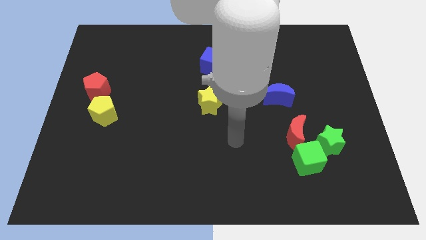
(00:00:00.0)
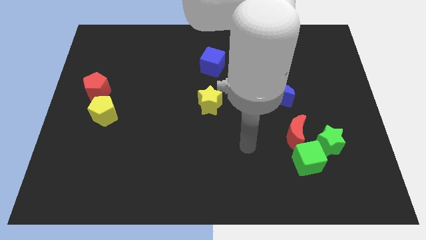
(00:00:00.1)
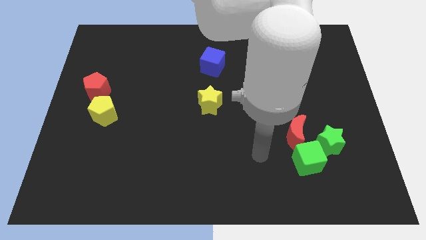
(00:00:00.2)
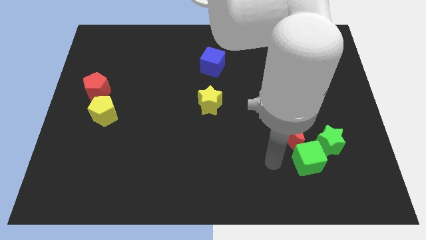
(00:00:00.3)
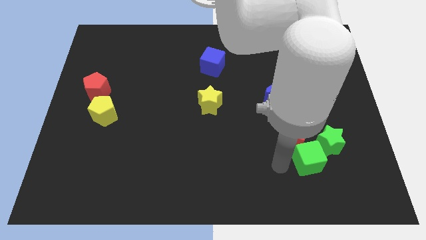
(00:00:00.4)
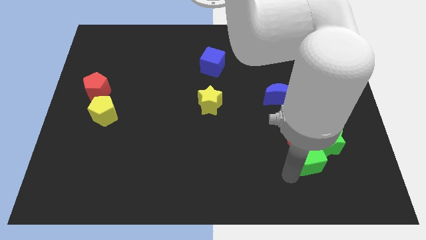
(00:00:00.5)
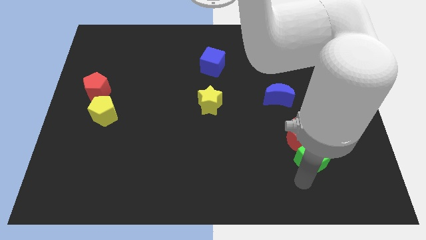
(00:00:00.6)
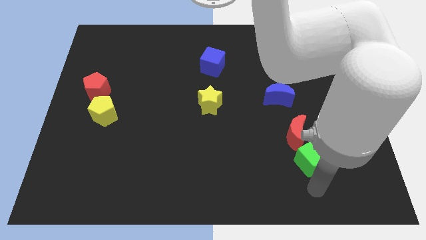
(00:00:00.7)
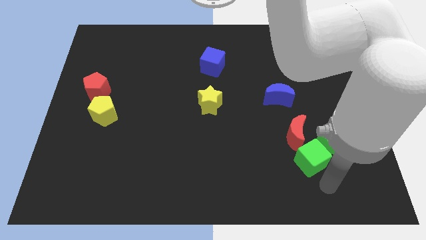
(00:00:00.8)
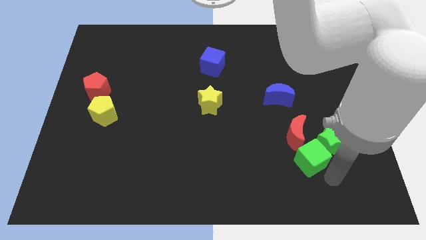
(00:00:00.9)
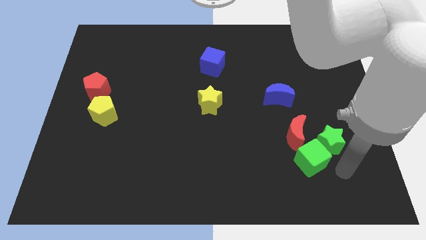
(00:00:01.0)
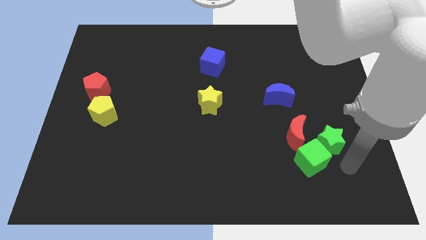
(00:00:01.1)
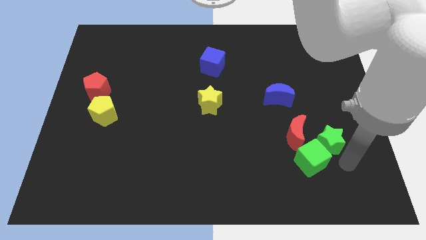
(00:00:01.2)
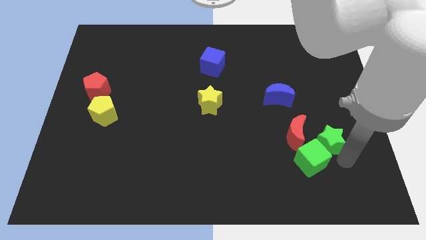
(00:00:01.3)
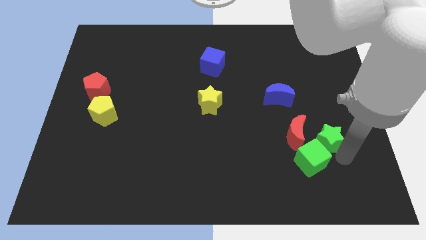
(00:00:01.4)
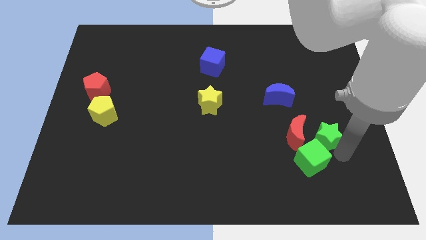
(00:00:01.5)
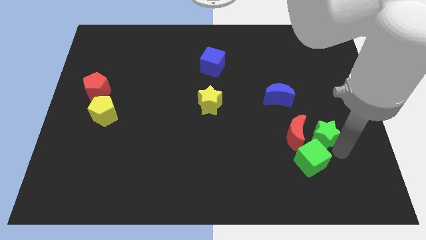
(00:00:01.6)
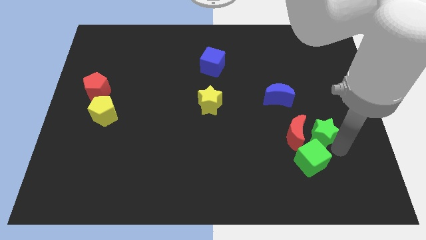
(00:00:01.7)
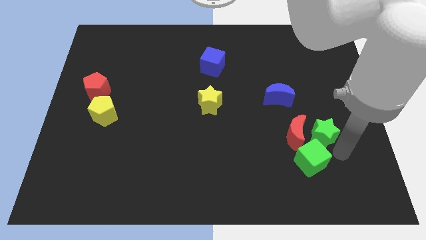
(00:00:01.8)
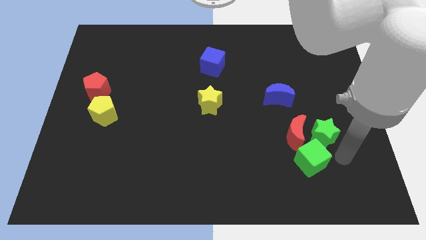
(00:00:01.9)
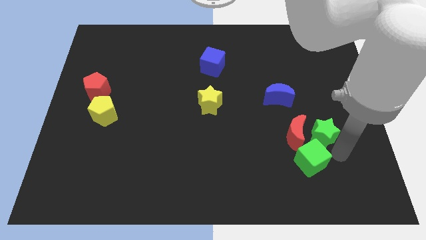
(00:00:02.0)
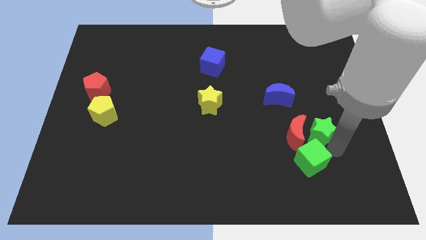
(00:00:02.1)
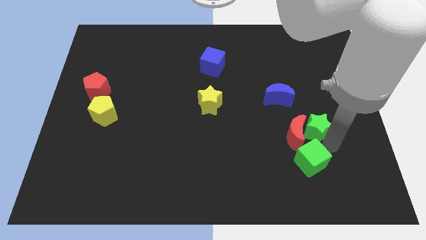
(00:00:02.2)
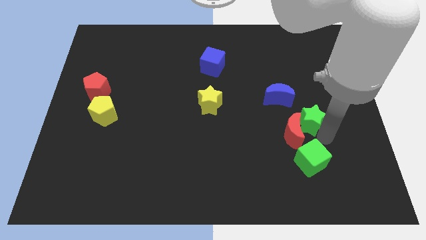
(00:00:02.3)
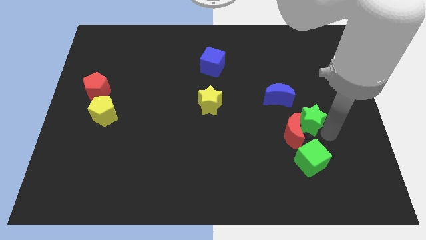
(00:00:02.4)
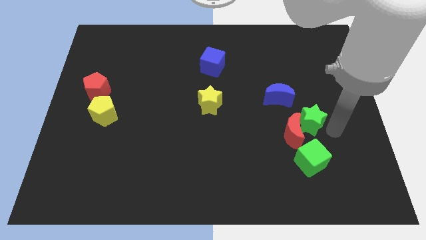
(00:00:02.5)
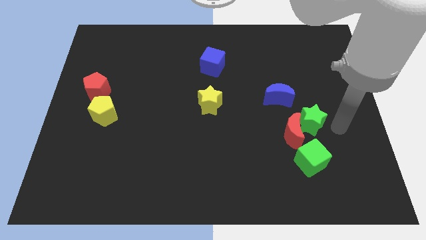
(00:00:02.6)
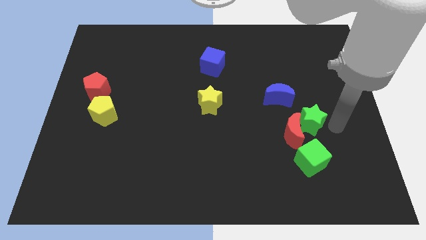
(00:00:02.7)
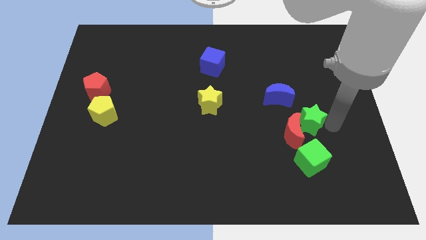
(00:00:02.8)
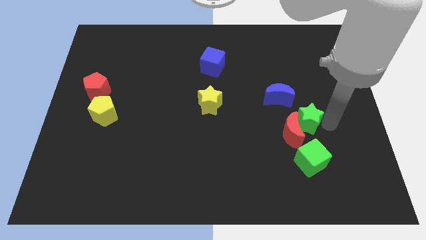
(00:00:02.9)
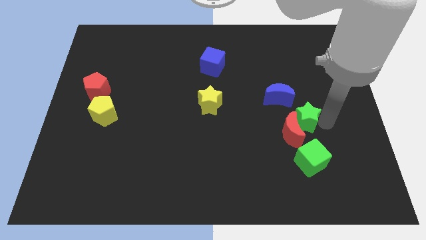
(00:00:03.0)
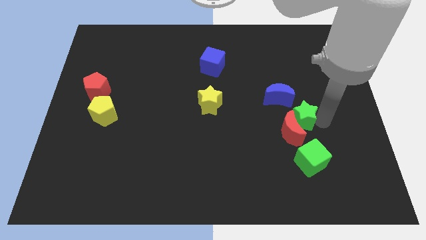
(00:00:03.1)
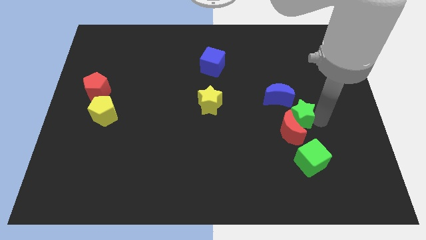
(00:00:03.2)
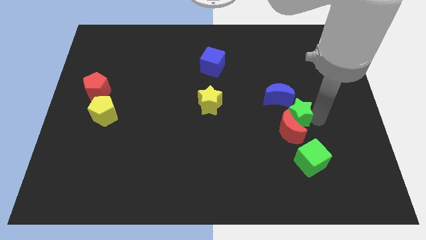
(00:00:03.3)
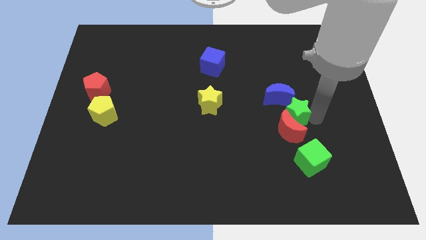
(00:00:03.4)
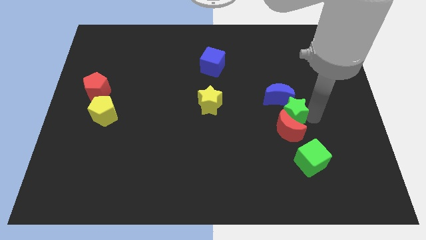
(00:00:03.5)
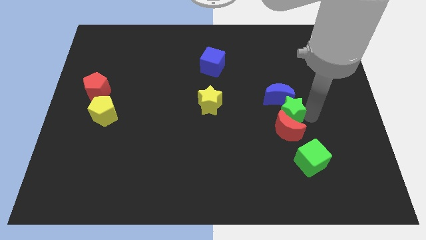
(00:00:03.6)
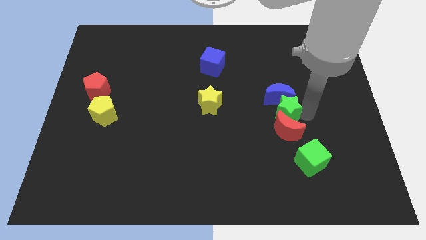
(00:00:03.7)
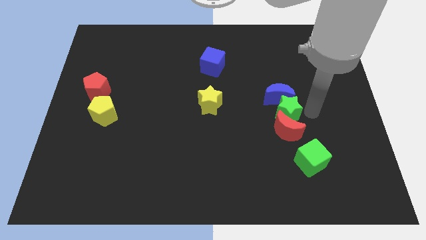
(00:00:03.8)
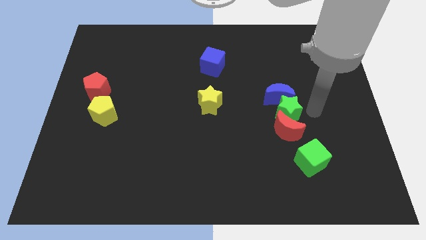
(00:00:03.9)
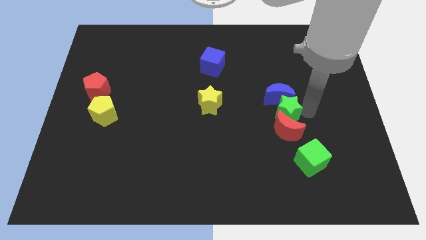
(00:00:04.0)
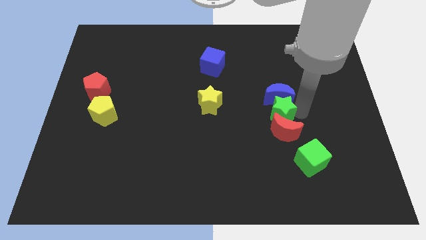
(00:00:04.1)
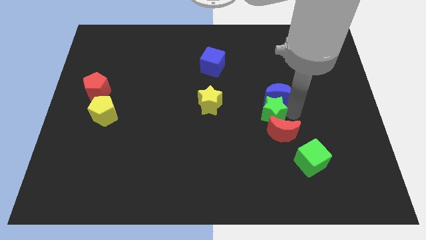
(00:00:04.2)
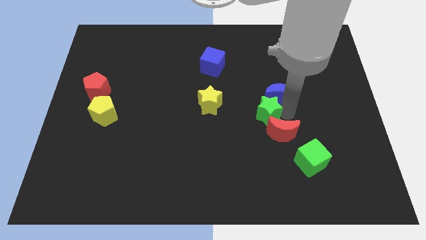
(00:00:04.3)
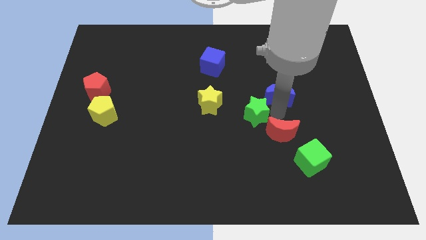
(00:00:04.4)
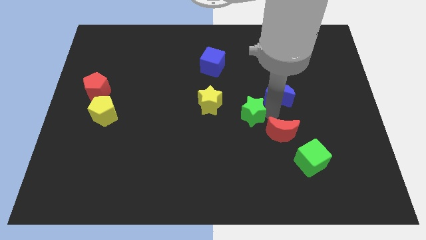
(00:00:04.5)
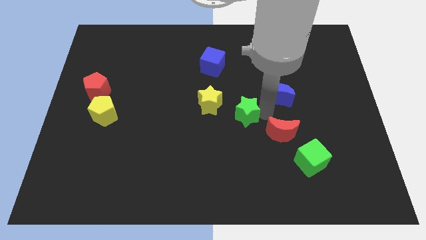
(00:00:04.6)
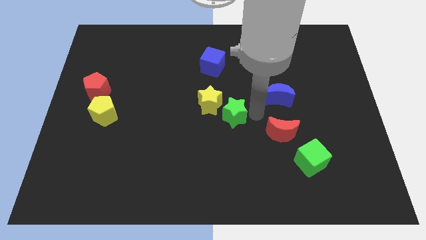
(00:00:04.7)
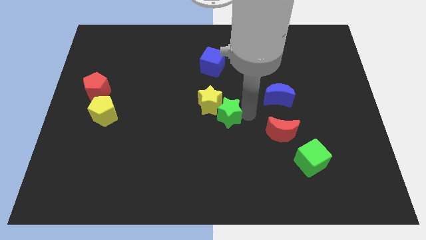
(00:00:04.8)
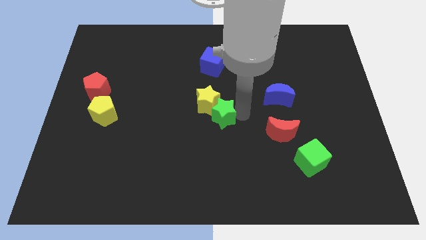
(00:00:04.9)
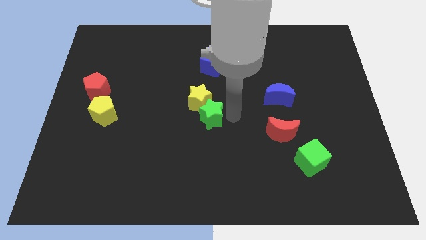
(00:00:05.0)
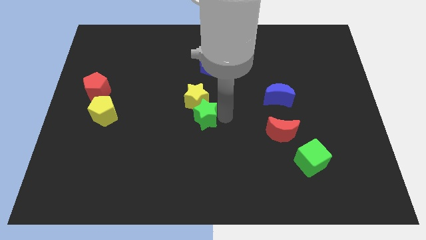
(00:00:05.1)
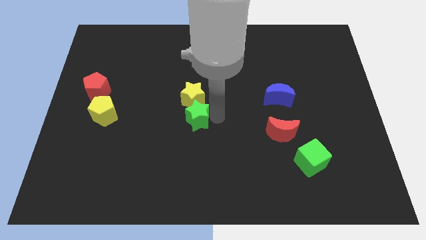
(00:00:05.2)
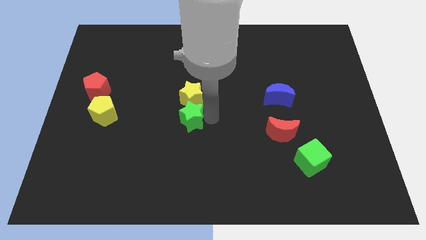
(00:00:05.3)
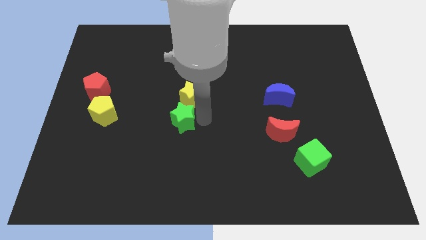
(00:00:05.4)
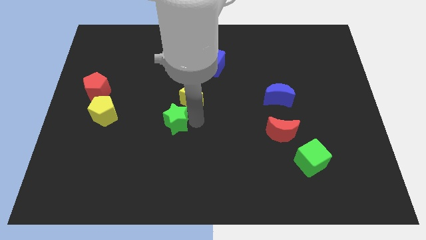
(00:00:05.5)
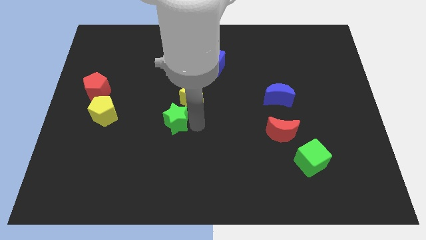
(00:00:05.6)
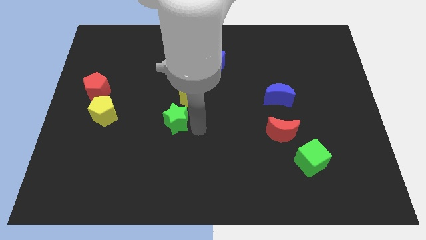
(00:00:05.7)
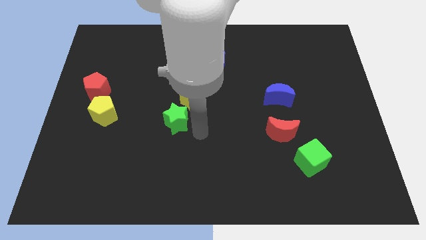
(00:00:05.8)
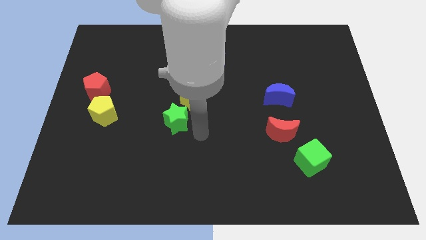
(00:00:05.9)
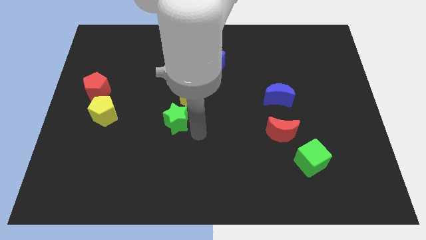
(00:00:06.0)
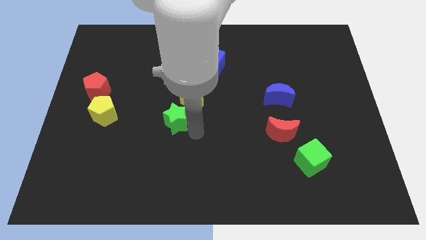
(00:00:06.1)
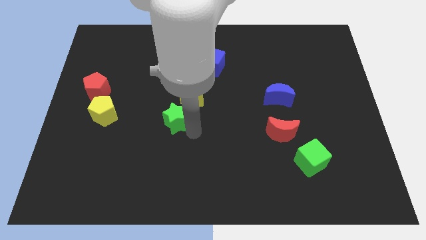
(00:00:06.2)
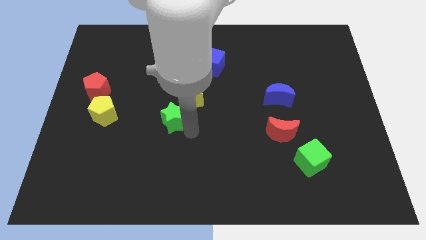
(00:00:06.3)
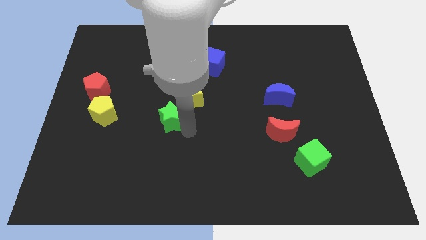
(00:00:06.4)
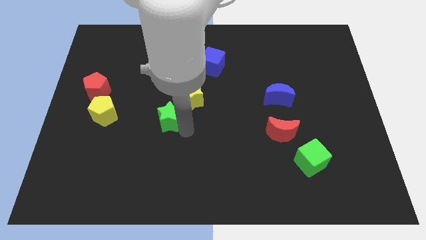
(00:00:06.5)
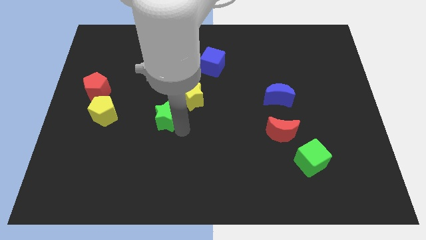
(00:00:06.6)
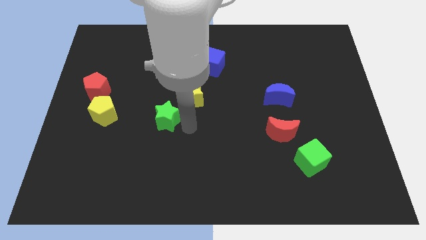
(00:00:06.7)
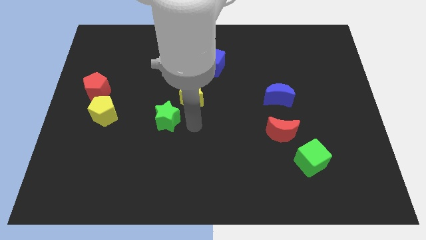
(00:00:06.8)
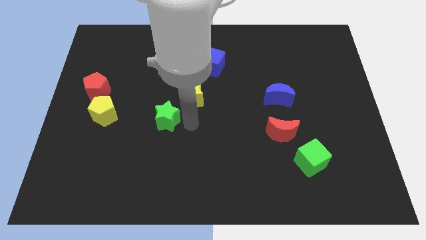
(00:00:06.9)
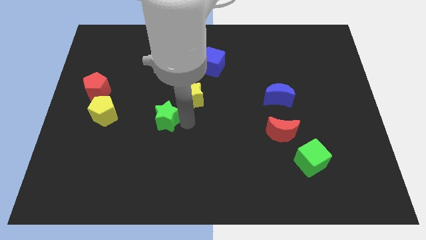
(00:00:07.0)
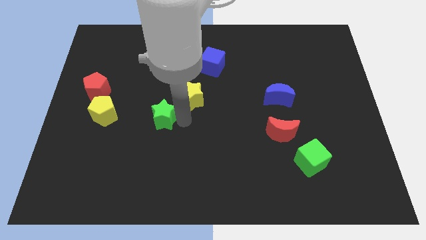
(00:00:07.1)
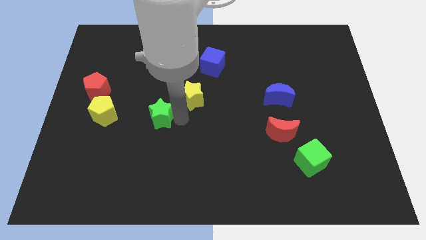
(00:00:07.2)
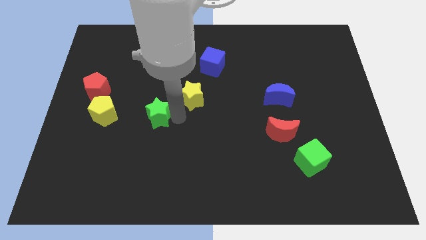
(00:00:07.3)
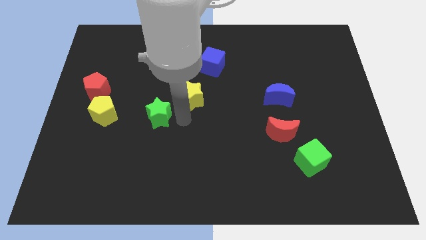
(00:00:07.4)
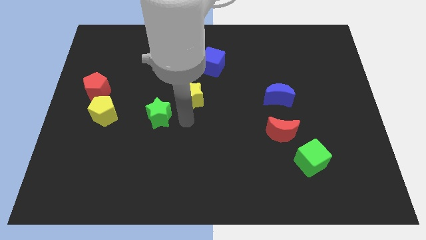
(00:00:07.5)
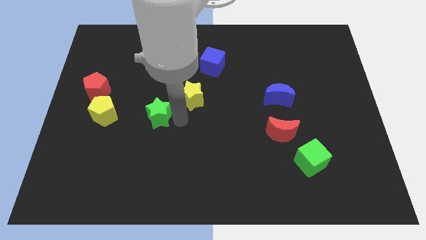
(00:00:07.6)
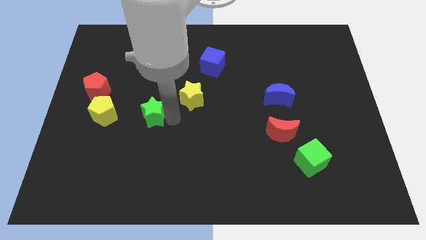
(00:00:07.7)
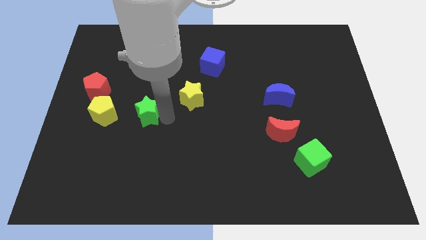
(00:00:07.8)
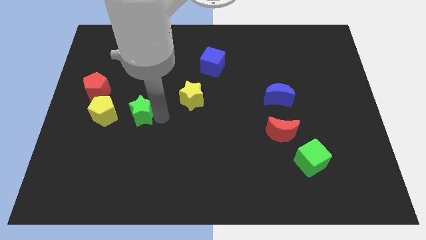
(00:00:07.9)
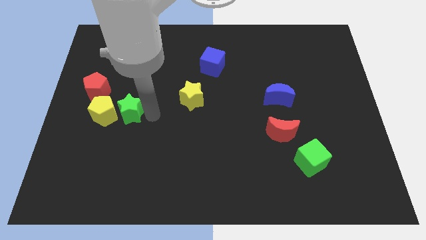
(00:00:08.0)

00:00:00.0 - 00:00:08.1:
move the green star towards the yellow pentagon
